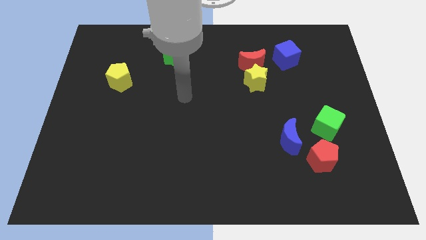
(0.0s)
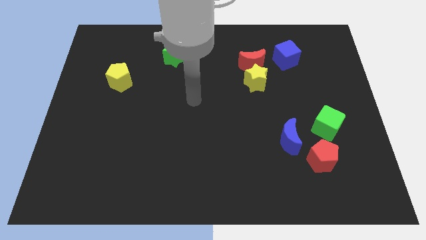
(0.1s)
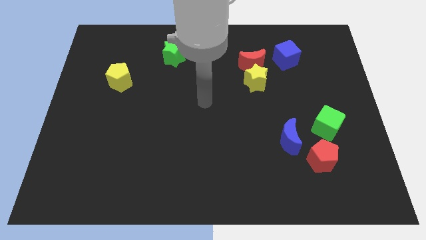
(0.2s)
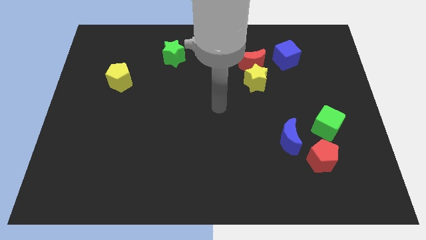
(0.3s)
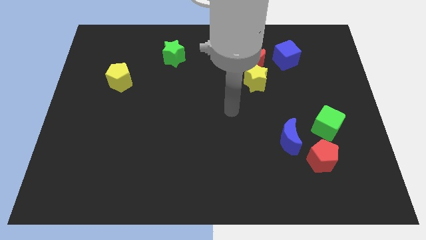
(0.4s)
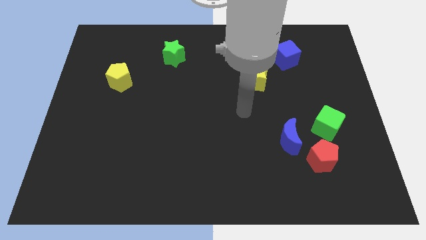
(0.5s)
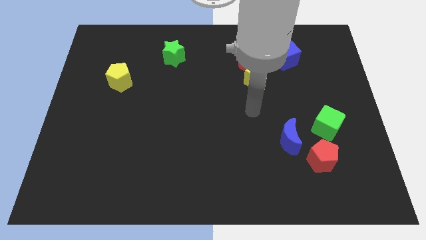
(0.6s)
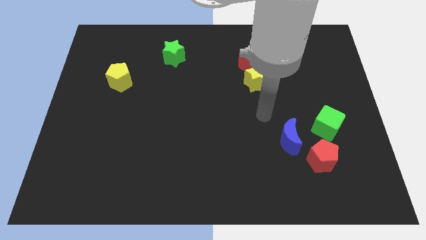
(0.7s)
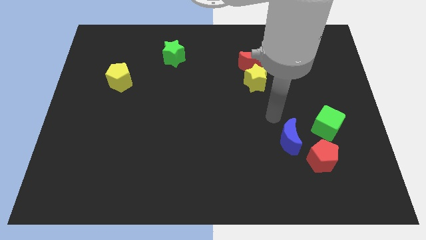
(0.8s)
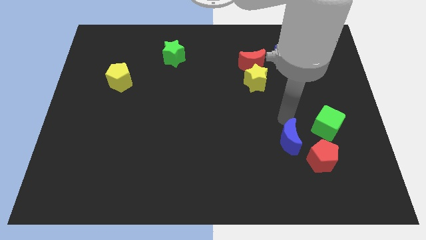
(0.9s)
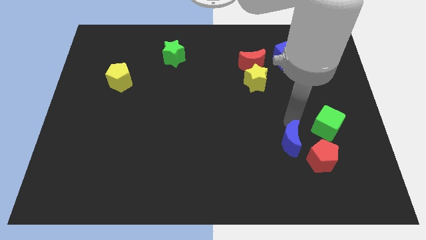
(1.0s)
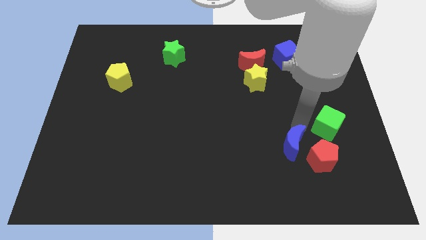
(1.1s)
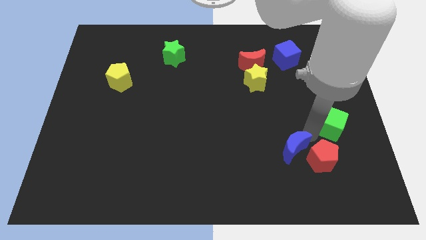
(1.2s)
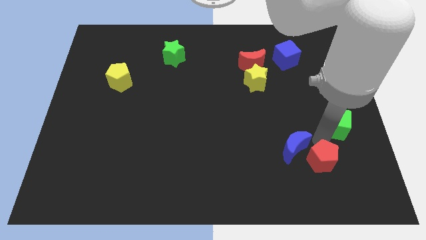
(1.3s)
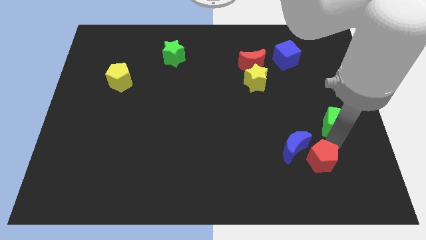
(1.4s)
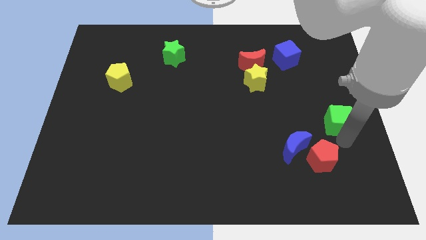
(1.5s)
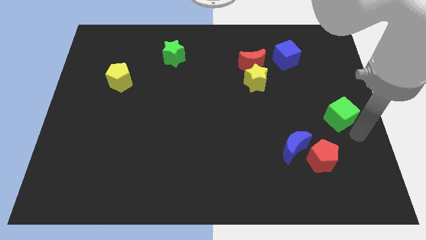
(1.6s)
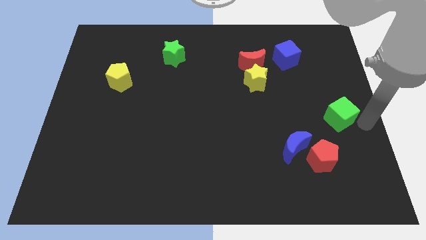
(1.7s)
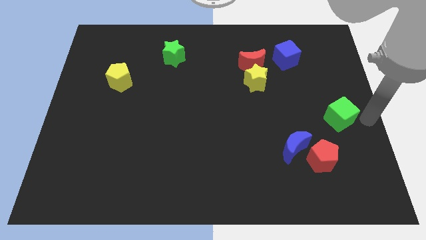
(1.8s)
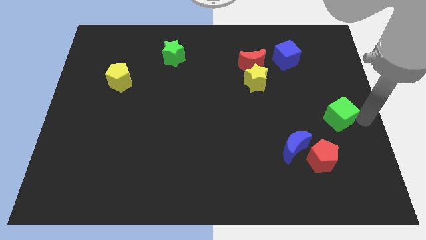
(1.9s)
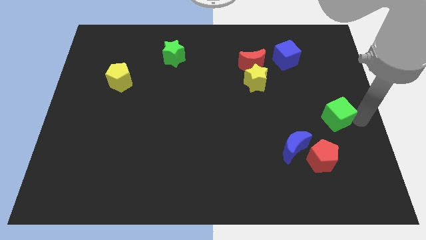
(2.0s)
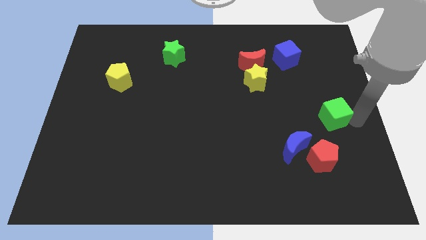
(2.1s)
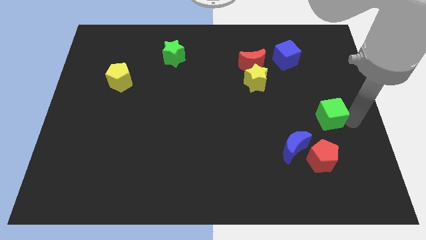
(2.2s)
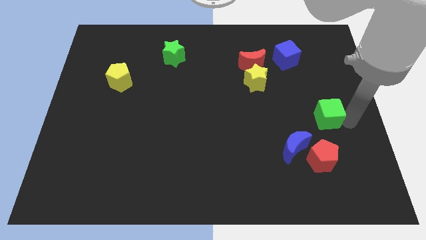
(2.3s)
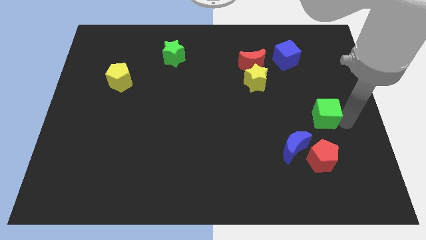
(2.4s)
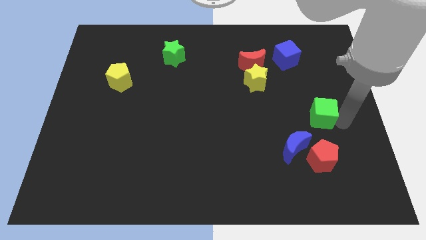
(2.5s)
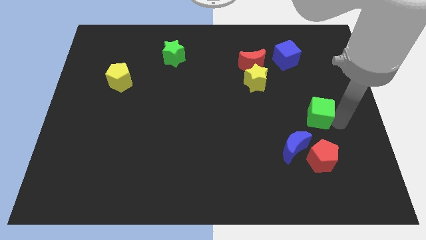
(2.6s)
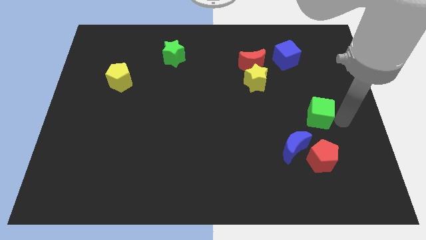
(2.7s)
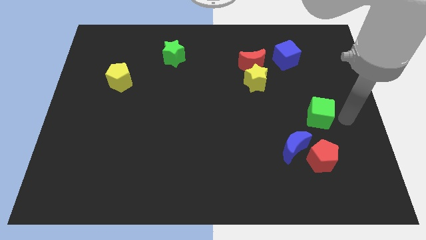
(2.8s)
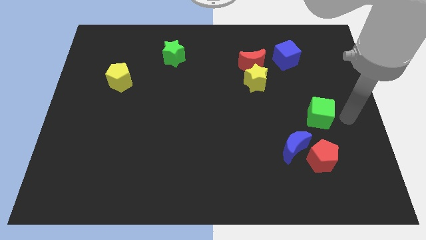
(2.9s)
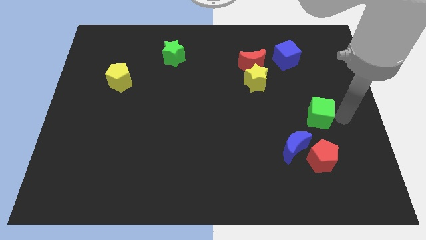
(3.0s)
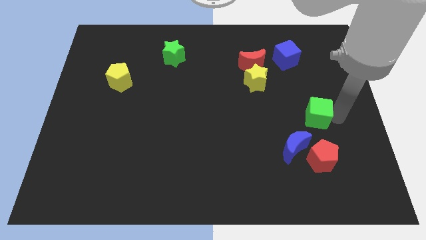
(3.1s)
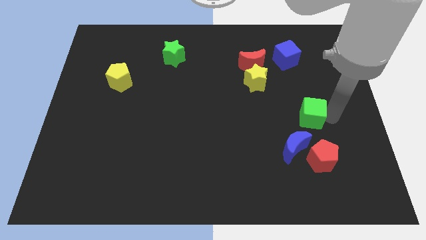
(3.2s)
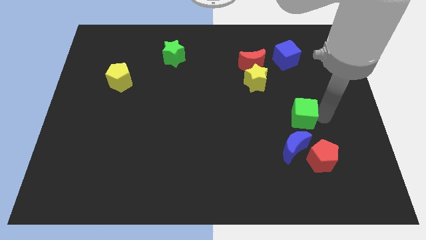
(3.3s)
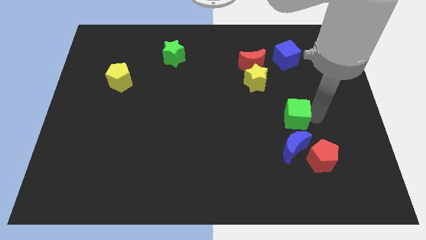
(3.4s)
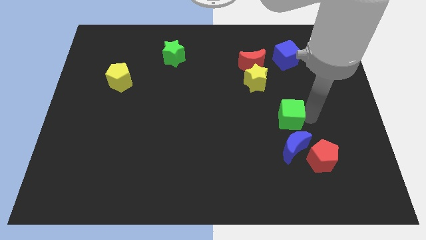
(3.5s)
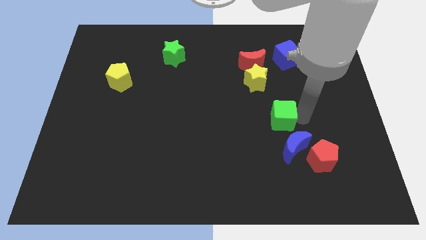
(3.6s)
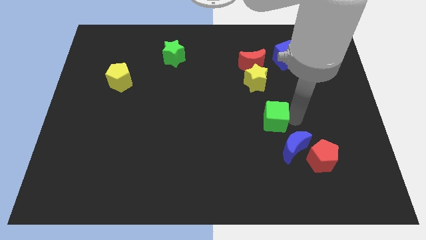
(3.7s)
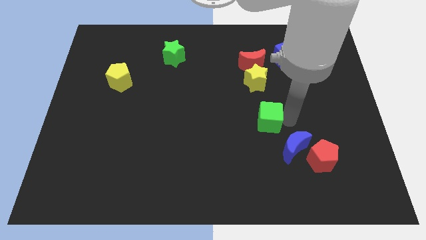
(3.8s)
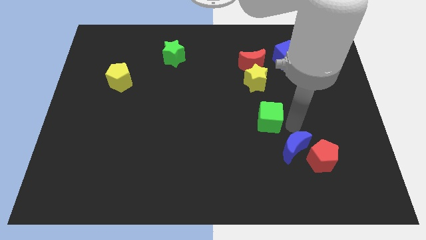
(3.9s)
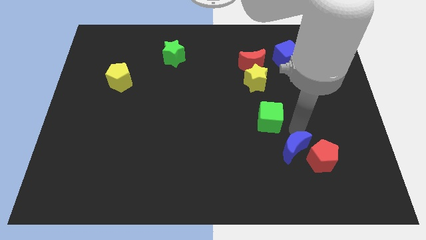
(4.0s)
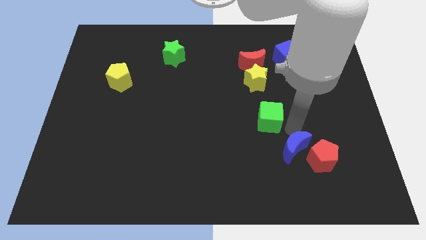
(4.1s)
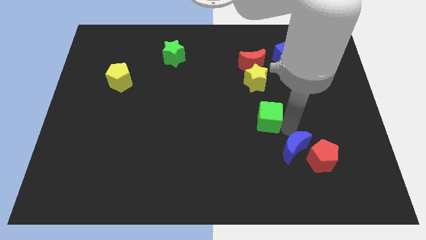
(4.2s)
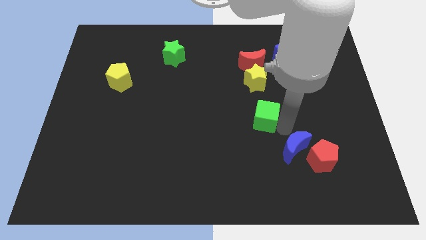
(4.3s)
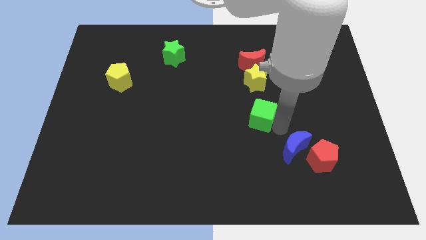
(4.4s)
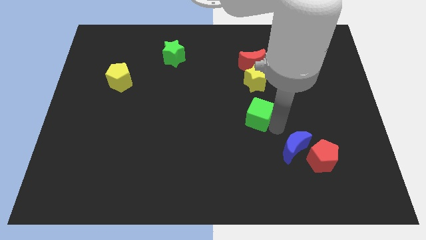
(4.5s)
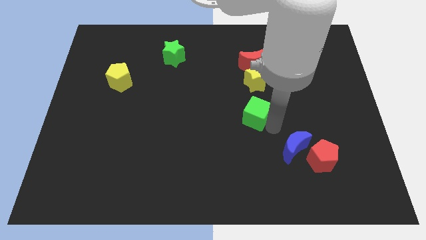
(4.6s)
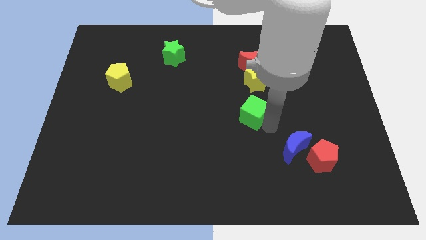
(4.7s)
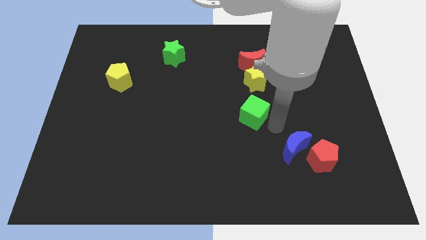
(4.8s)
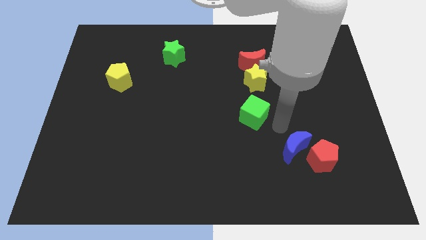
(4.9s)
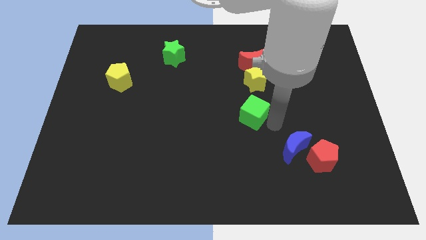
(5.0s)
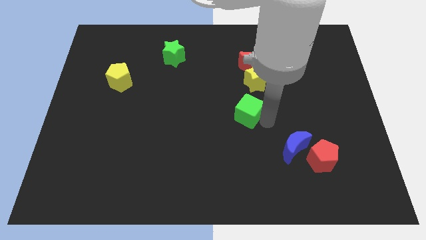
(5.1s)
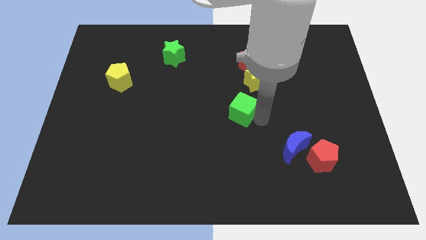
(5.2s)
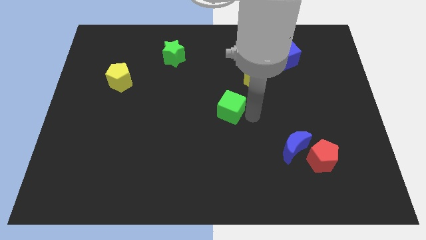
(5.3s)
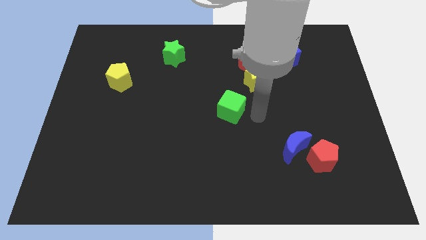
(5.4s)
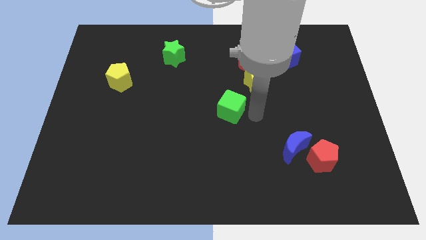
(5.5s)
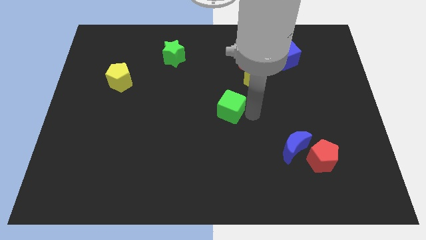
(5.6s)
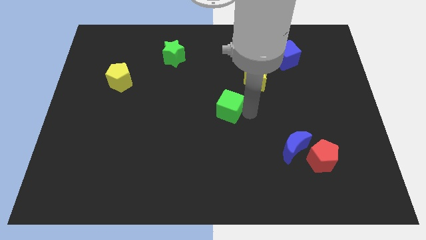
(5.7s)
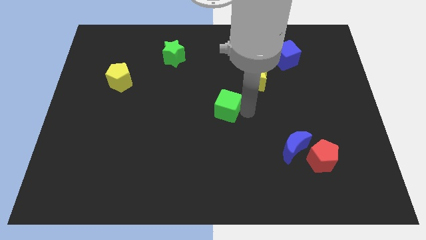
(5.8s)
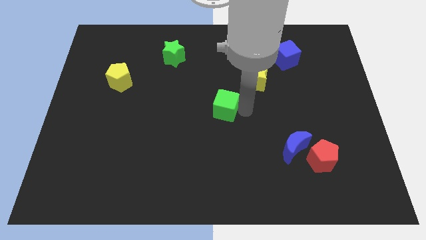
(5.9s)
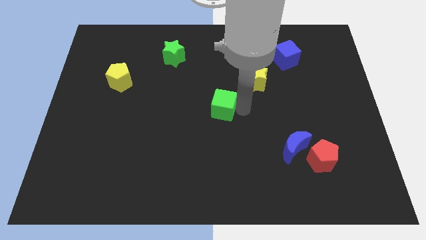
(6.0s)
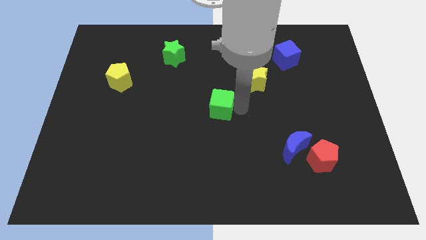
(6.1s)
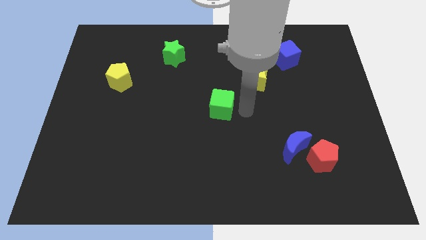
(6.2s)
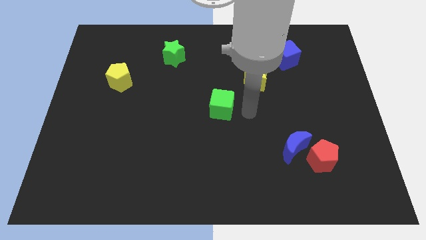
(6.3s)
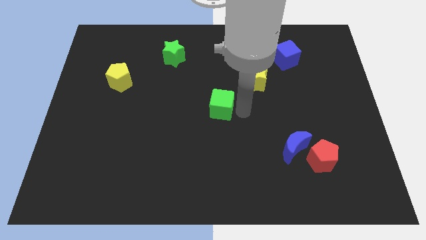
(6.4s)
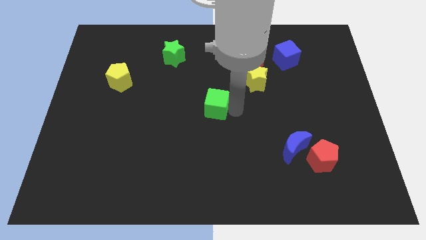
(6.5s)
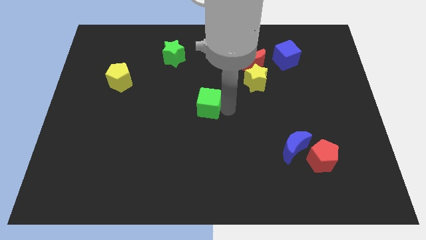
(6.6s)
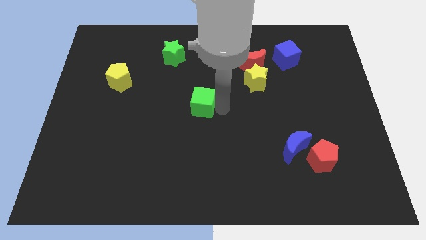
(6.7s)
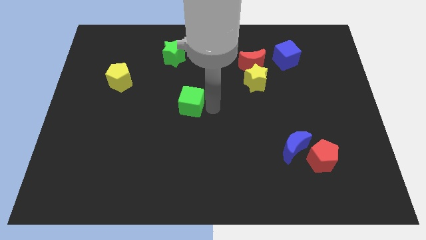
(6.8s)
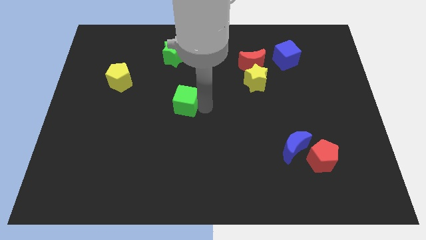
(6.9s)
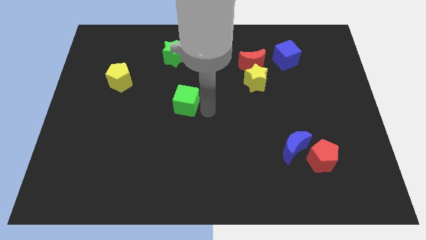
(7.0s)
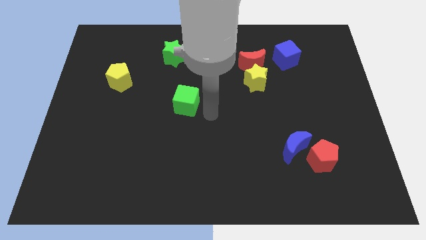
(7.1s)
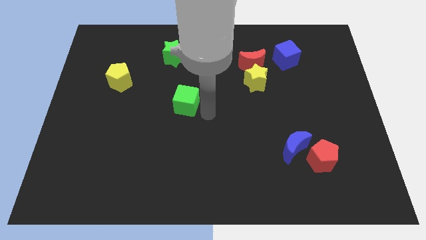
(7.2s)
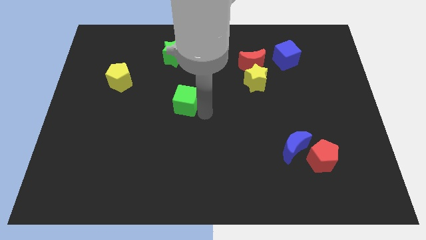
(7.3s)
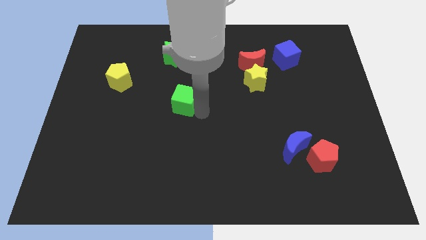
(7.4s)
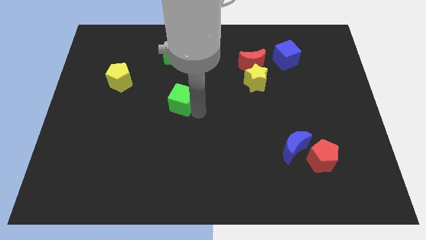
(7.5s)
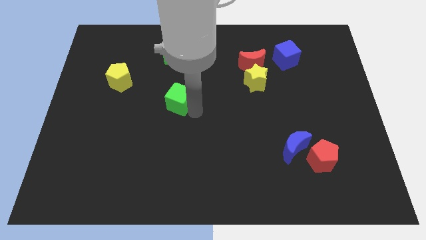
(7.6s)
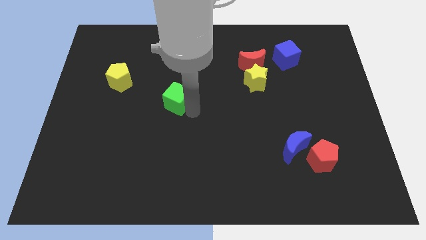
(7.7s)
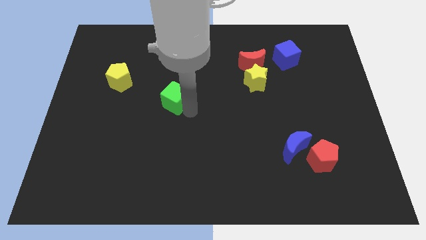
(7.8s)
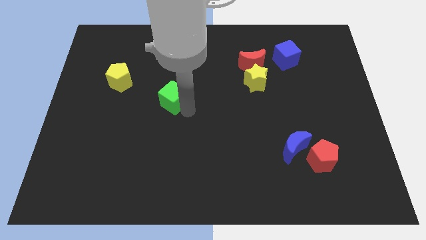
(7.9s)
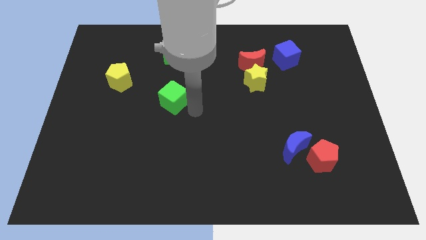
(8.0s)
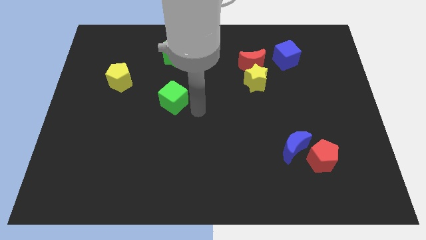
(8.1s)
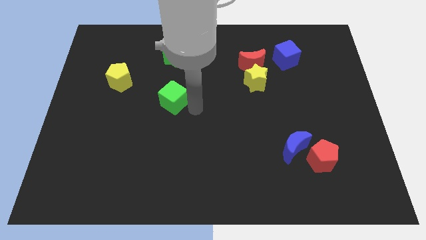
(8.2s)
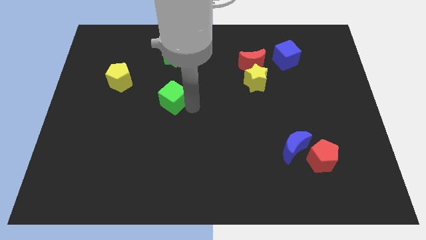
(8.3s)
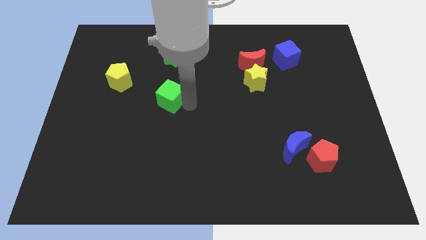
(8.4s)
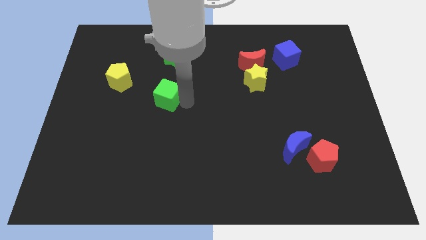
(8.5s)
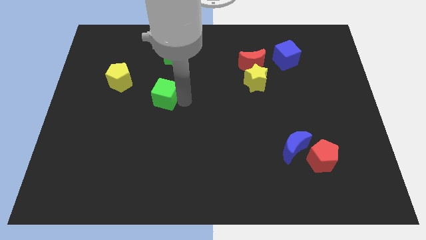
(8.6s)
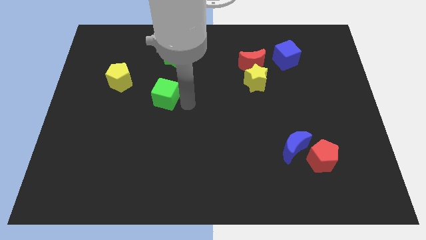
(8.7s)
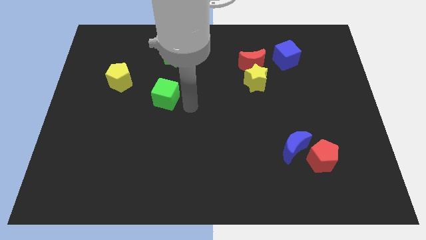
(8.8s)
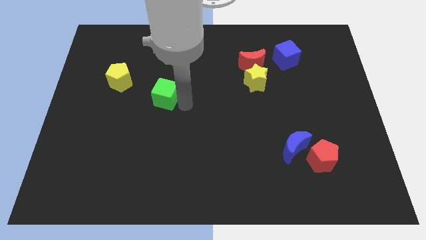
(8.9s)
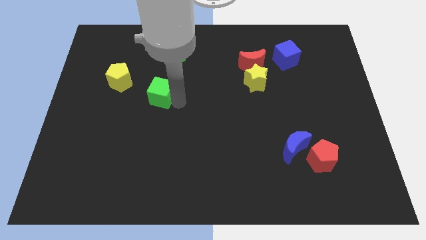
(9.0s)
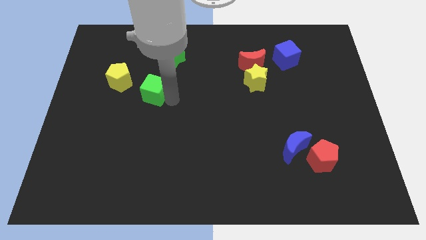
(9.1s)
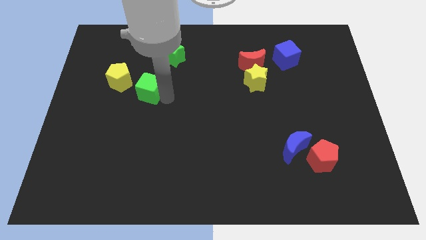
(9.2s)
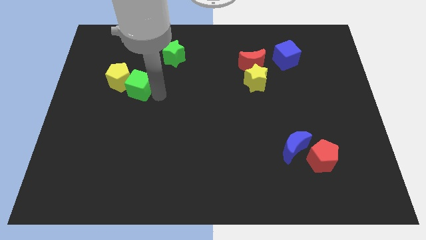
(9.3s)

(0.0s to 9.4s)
move the green cube next to the yellow pentagon
